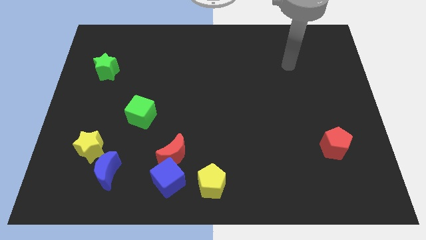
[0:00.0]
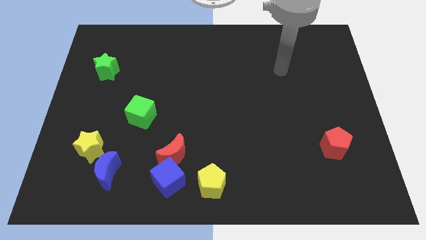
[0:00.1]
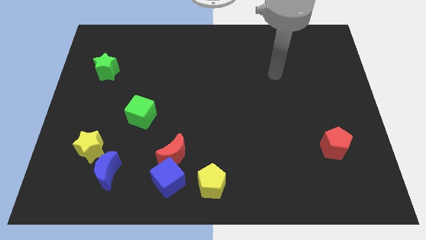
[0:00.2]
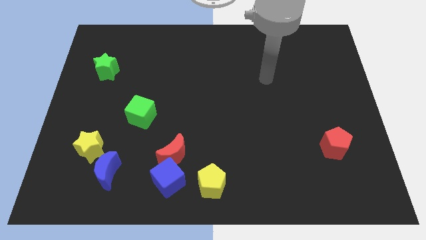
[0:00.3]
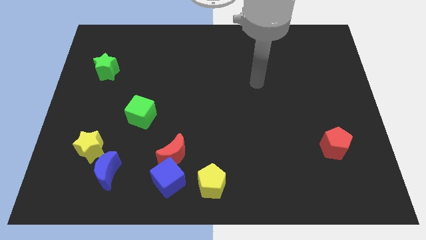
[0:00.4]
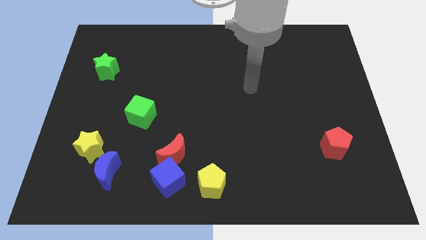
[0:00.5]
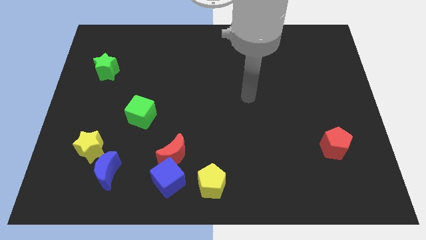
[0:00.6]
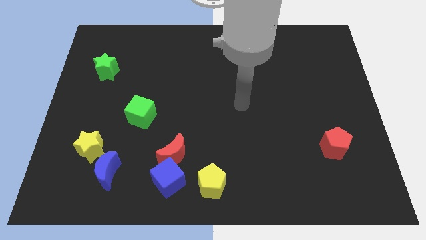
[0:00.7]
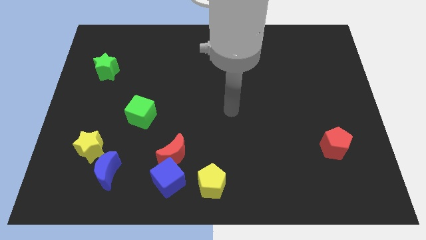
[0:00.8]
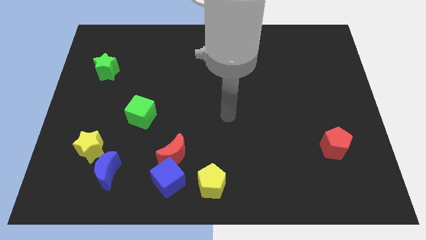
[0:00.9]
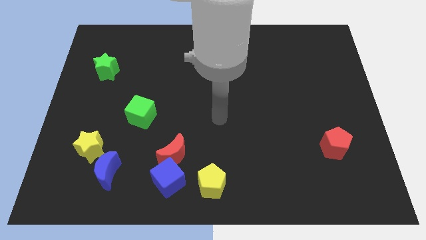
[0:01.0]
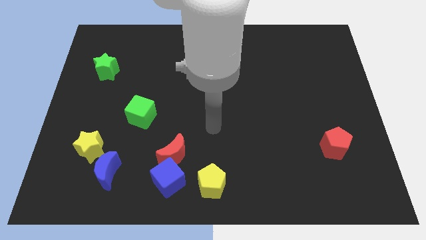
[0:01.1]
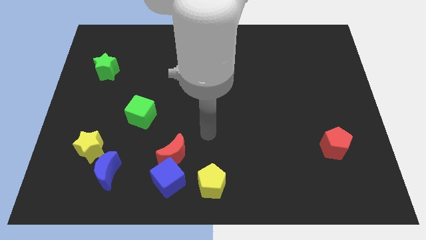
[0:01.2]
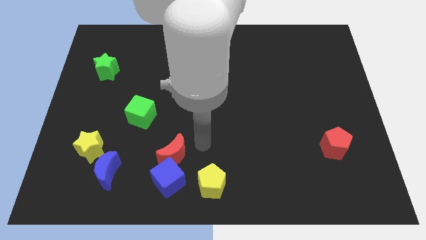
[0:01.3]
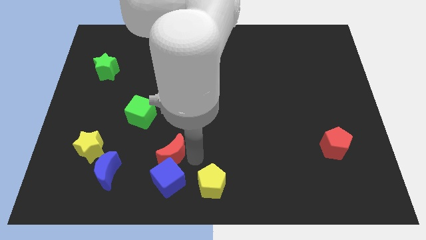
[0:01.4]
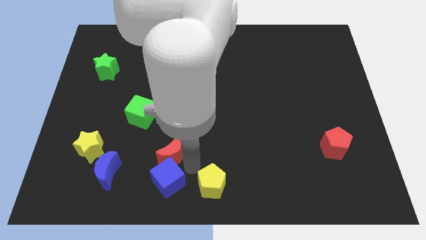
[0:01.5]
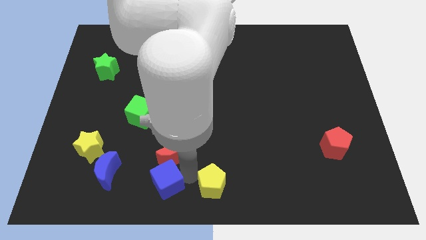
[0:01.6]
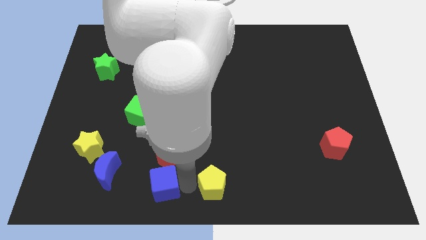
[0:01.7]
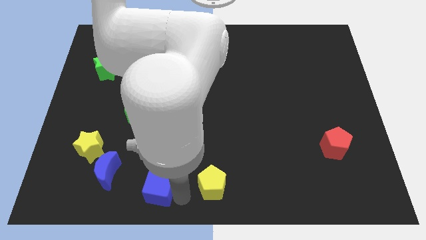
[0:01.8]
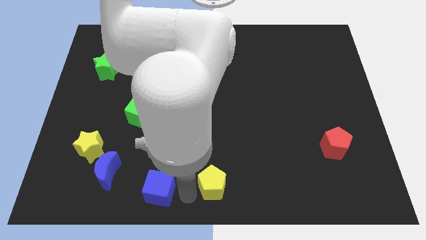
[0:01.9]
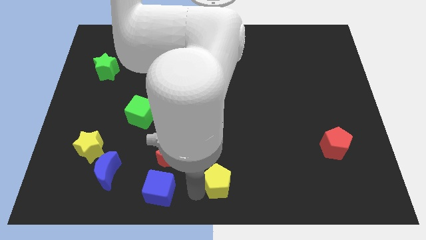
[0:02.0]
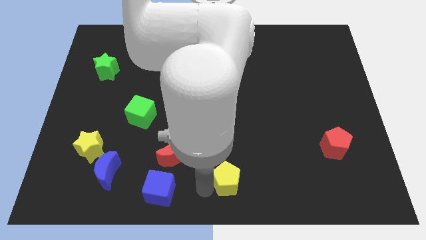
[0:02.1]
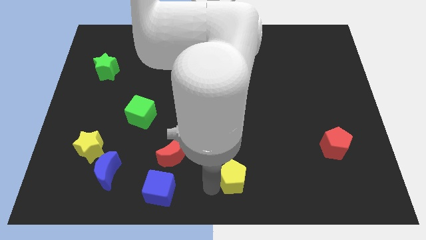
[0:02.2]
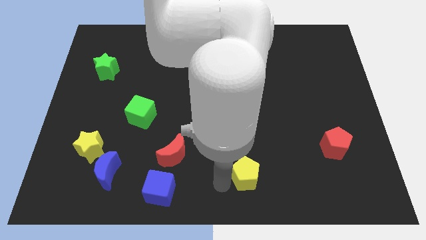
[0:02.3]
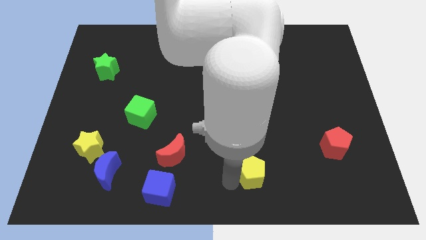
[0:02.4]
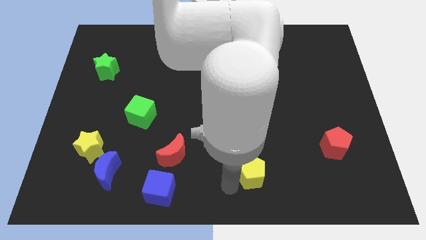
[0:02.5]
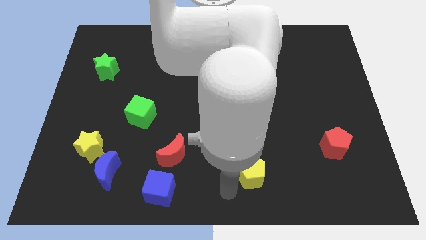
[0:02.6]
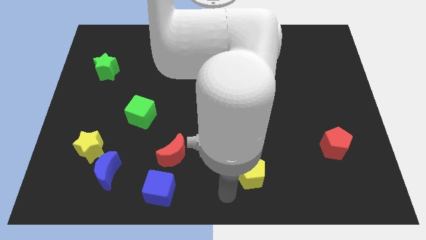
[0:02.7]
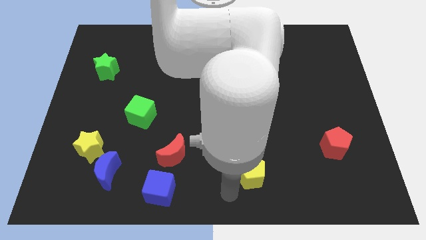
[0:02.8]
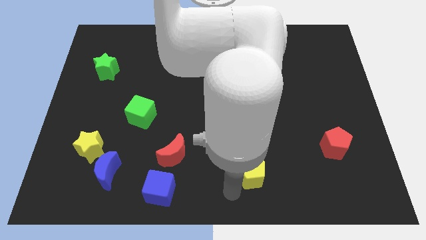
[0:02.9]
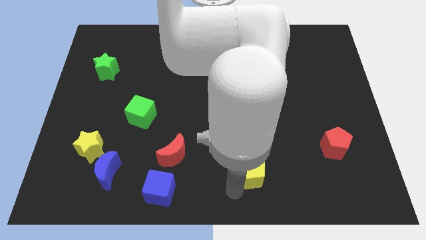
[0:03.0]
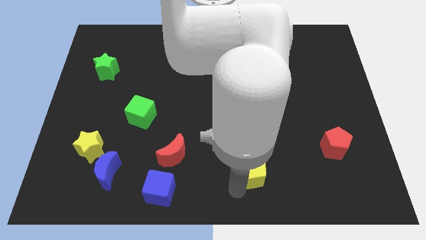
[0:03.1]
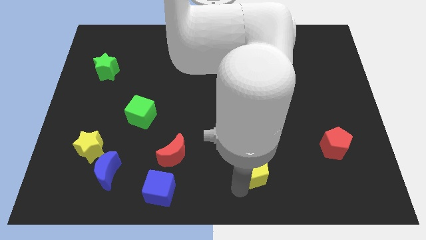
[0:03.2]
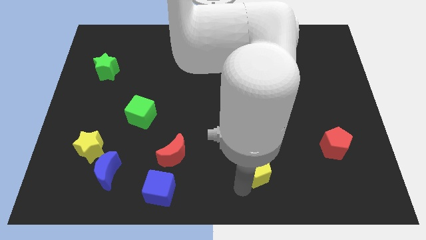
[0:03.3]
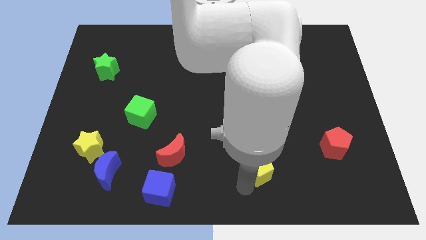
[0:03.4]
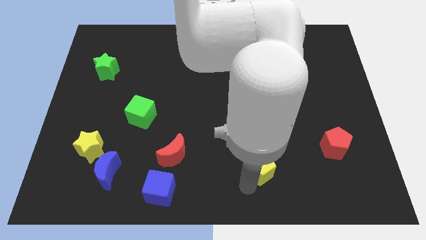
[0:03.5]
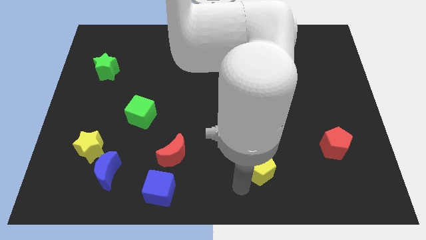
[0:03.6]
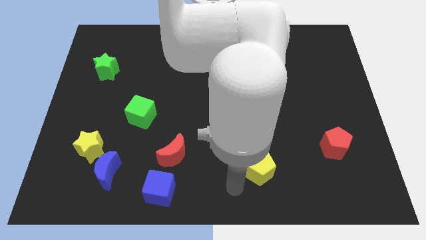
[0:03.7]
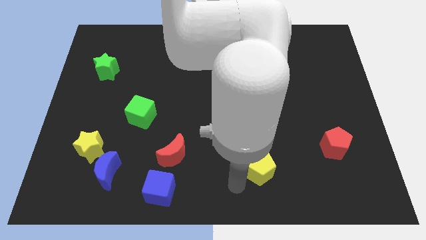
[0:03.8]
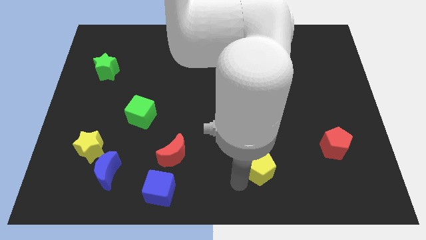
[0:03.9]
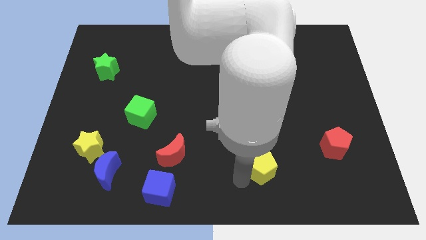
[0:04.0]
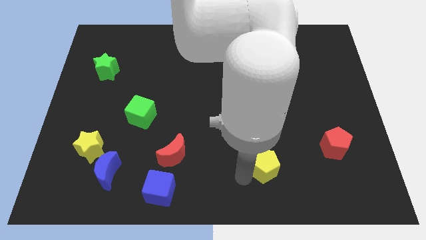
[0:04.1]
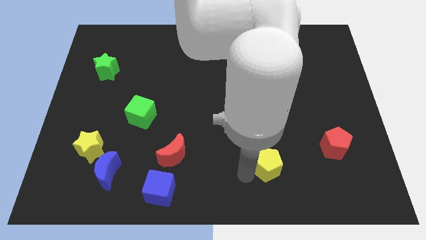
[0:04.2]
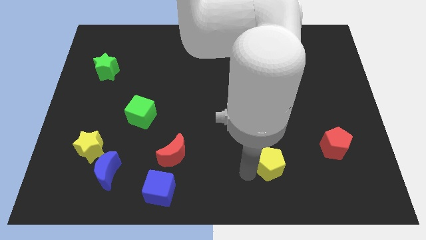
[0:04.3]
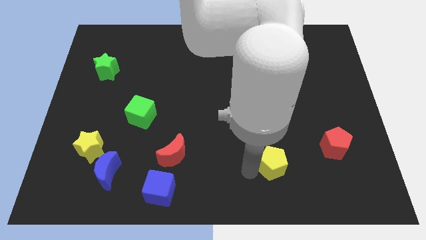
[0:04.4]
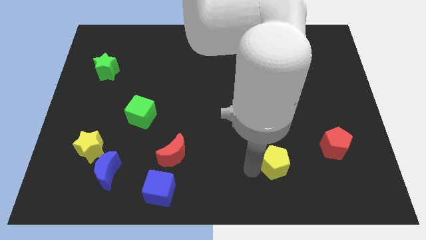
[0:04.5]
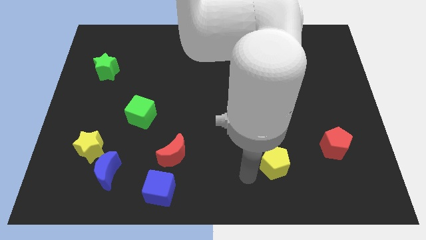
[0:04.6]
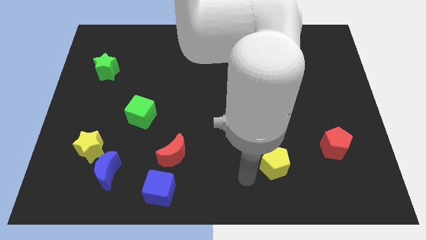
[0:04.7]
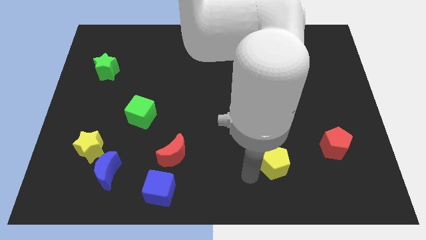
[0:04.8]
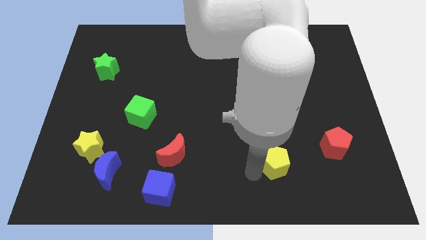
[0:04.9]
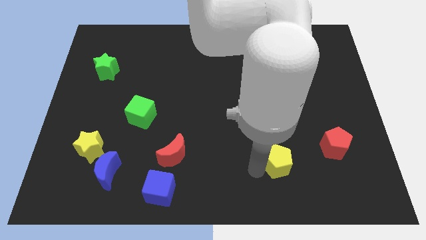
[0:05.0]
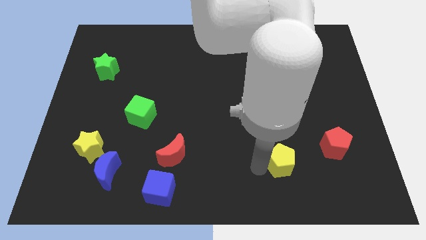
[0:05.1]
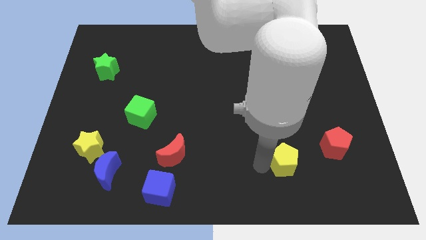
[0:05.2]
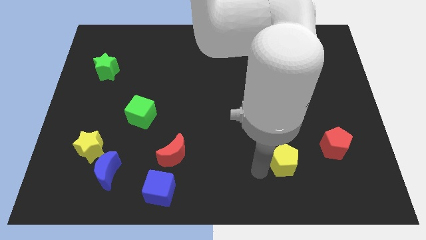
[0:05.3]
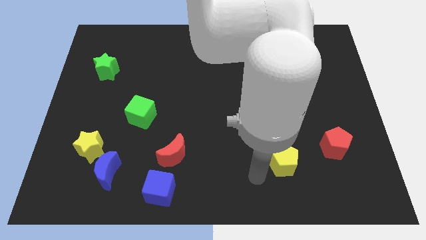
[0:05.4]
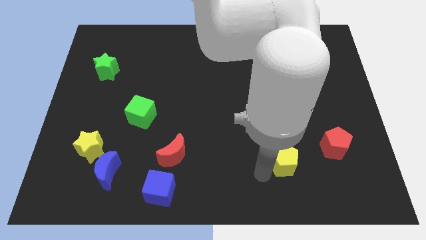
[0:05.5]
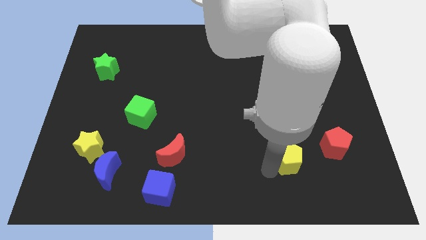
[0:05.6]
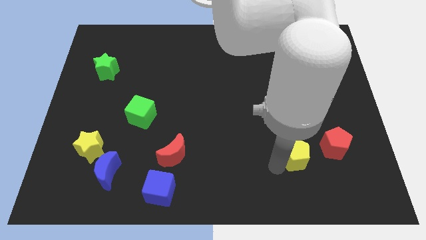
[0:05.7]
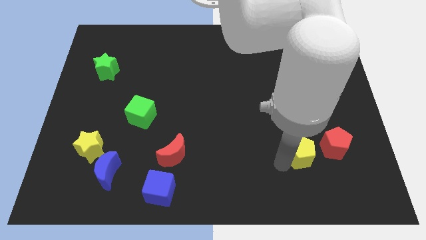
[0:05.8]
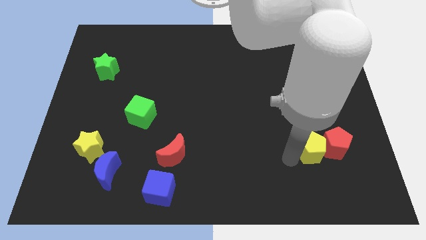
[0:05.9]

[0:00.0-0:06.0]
slide the yellow pentagon to the red pentagon

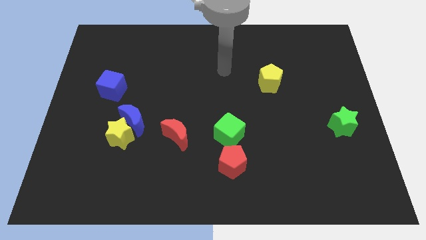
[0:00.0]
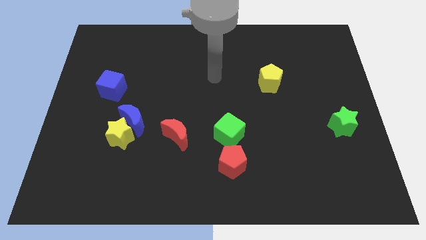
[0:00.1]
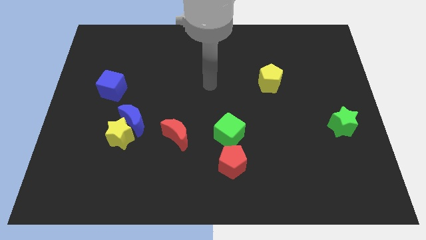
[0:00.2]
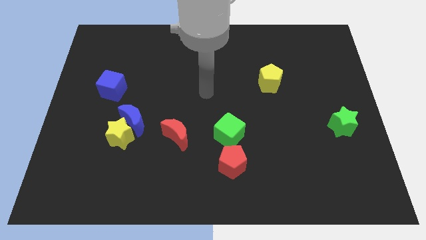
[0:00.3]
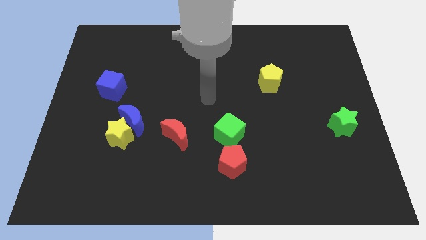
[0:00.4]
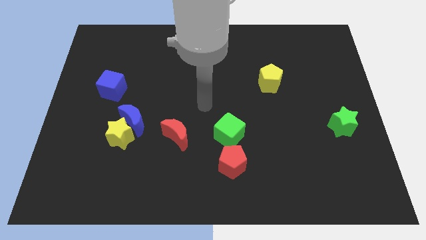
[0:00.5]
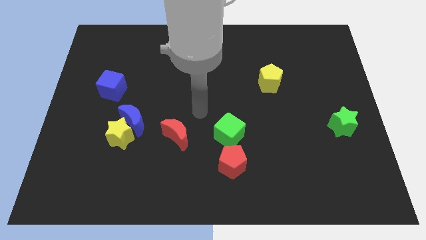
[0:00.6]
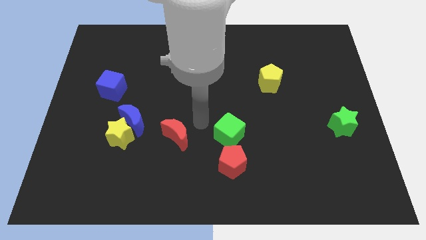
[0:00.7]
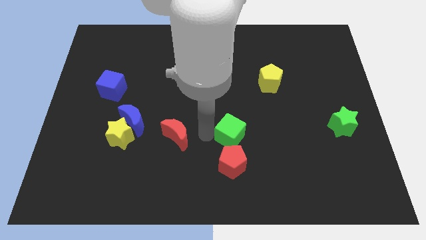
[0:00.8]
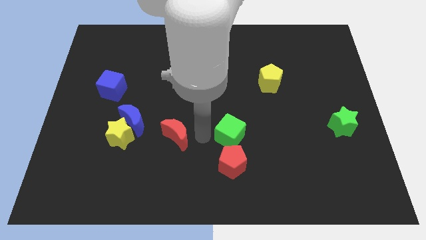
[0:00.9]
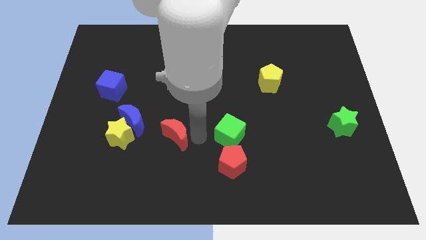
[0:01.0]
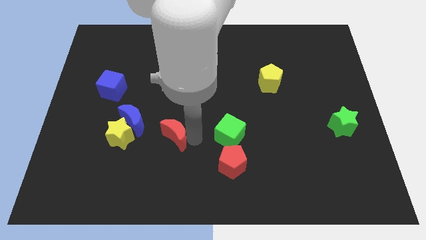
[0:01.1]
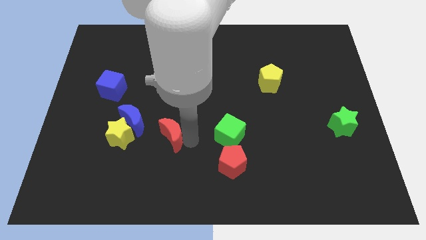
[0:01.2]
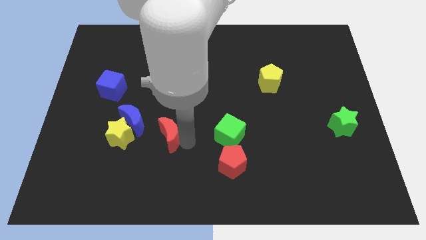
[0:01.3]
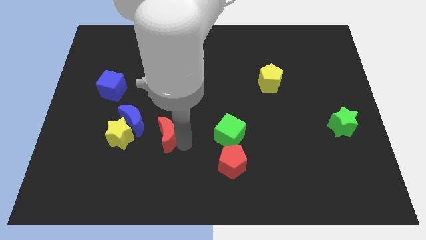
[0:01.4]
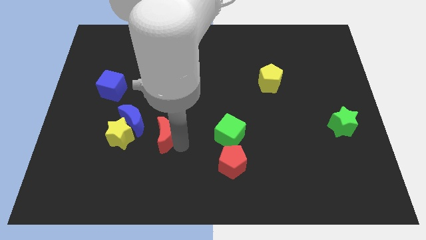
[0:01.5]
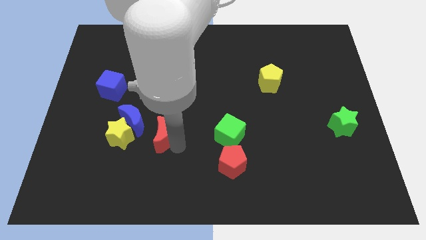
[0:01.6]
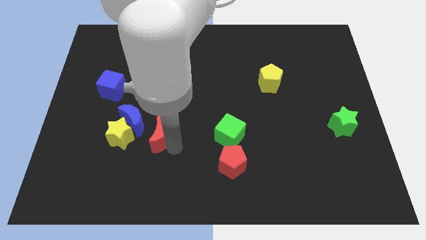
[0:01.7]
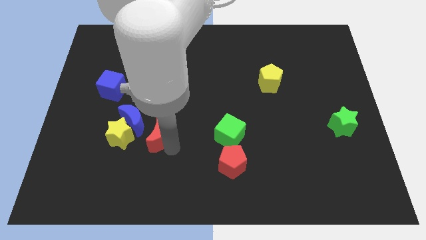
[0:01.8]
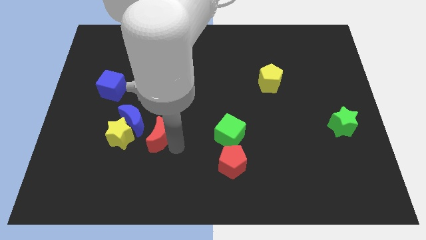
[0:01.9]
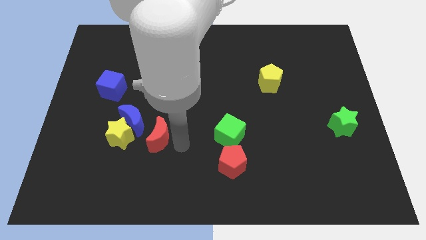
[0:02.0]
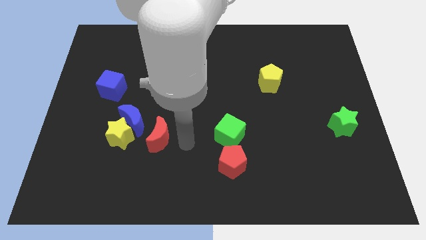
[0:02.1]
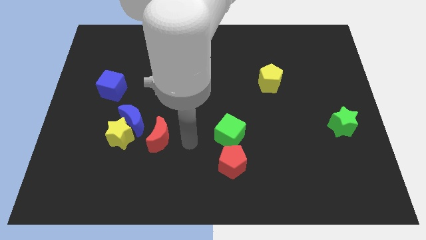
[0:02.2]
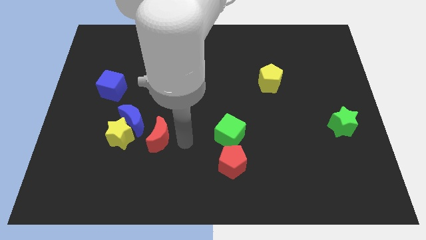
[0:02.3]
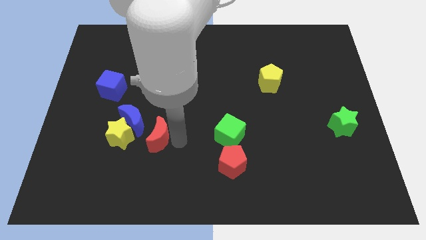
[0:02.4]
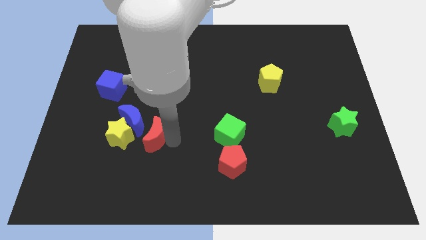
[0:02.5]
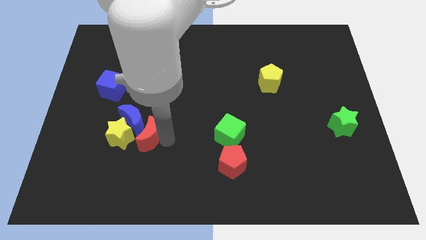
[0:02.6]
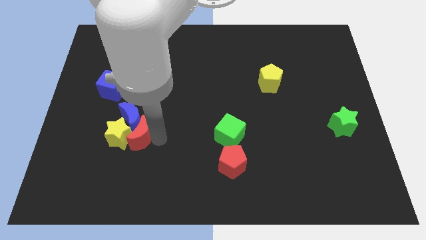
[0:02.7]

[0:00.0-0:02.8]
put the red moon next to the yellow star
